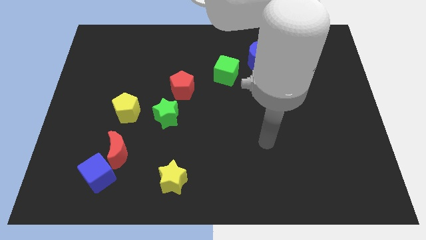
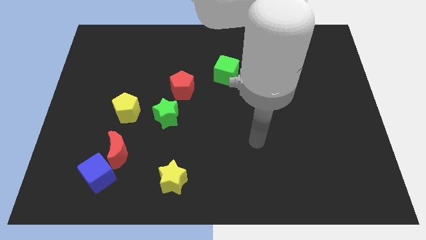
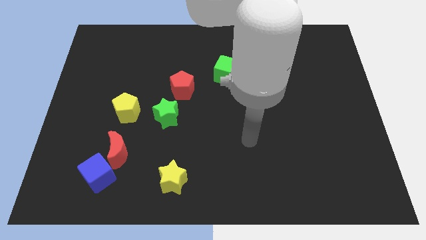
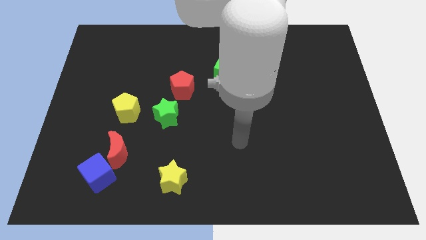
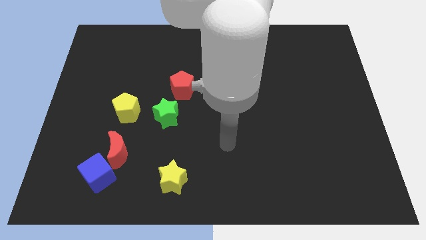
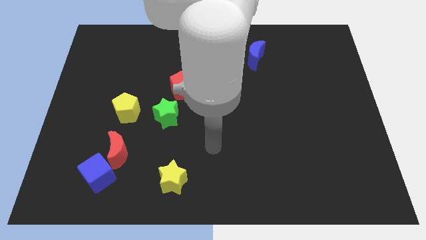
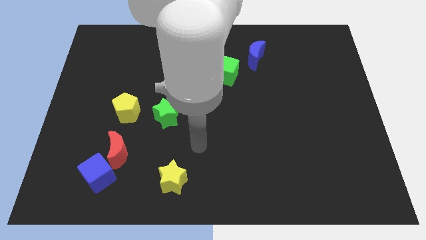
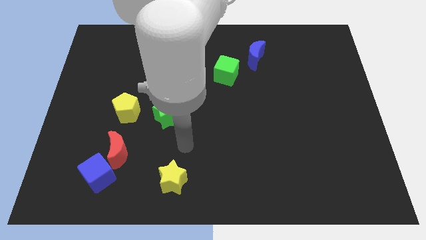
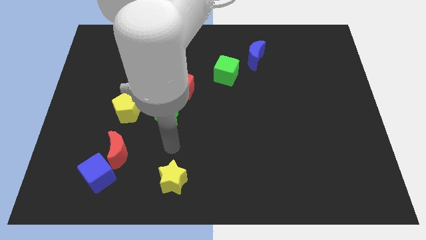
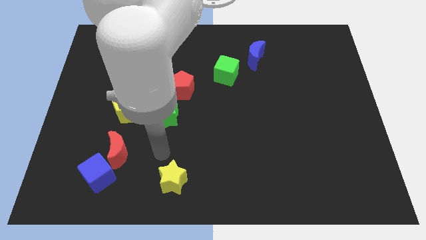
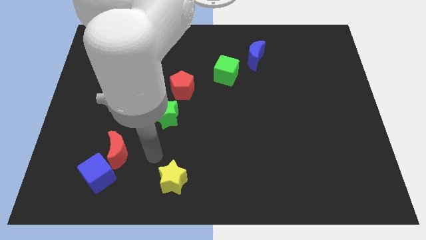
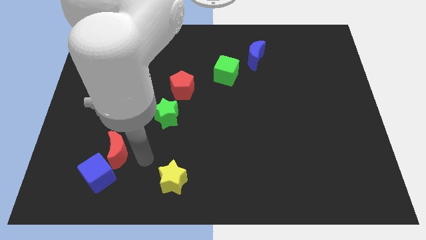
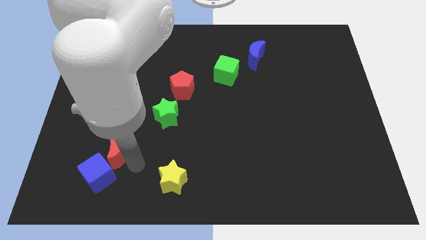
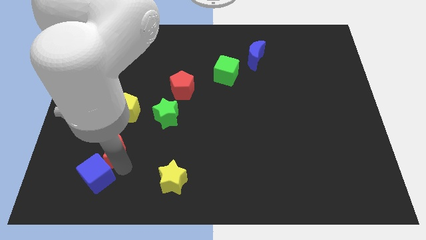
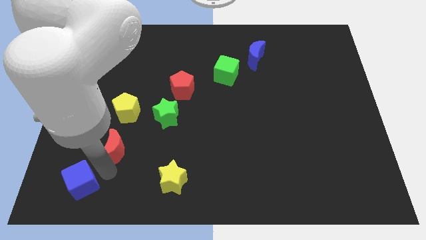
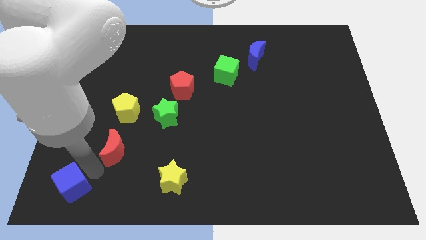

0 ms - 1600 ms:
pull the red moon apart from the blue cube

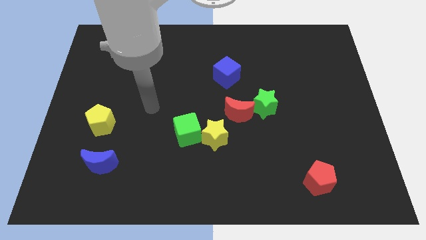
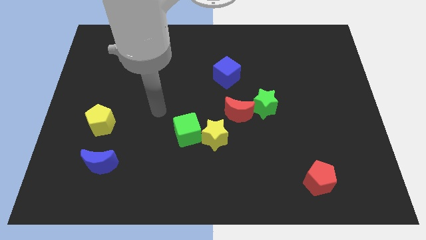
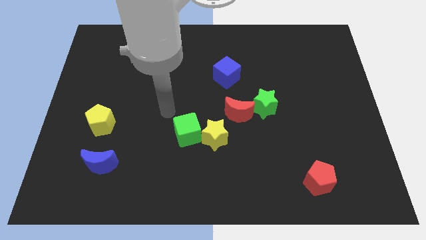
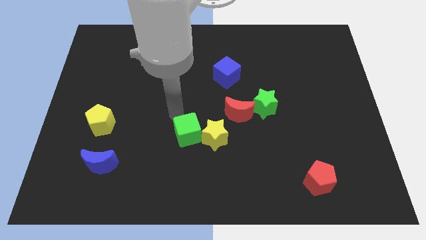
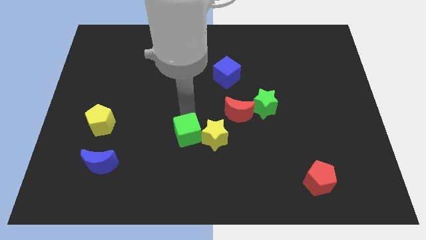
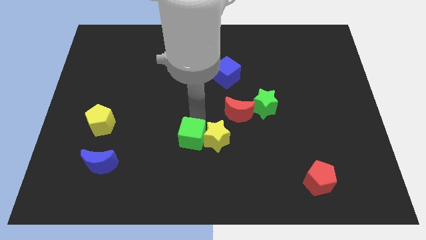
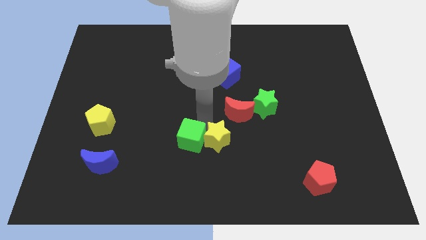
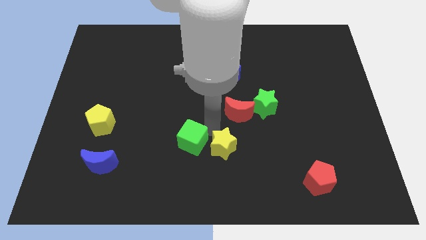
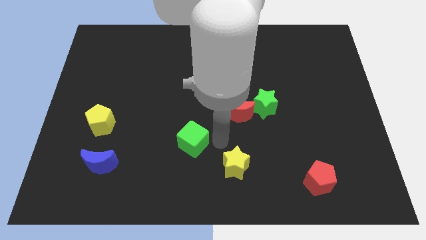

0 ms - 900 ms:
pull the green cube apart from the yellow star

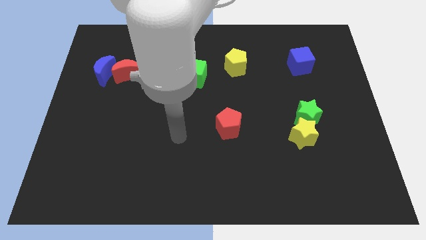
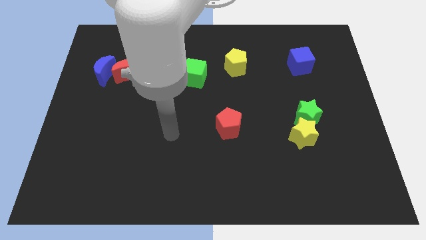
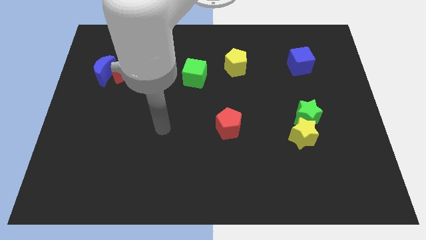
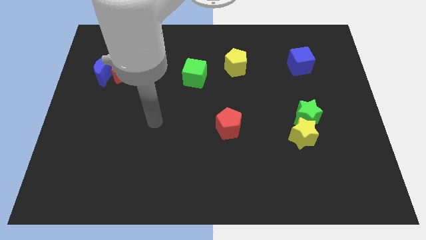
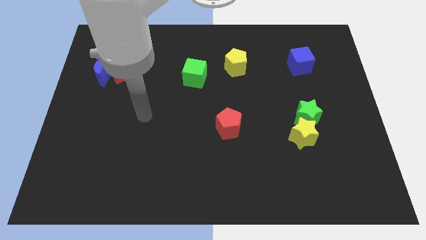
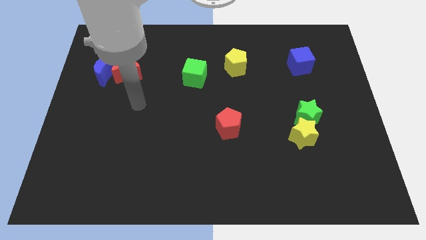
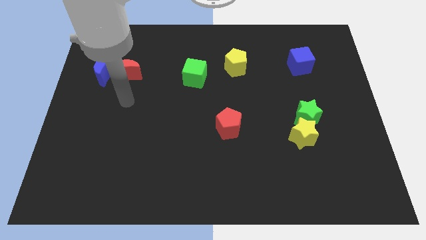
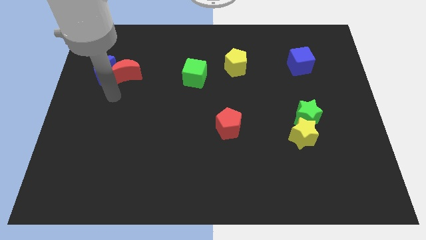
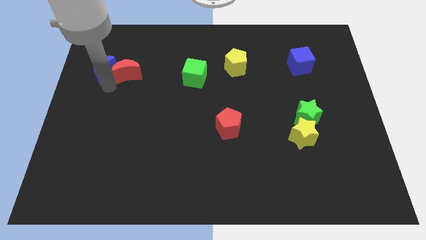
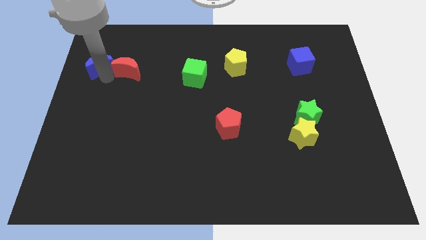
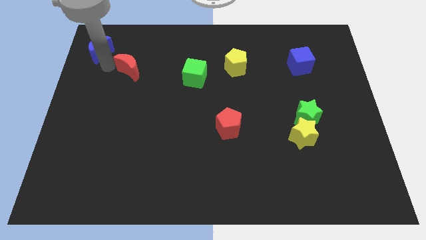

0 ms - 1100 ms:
move the red moon away from the blue moon

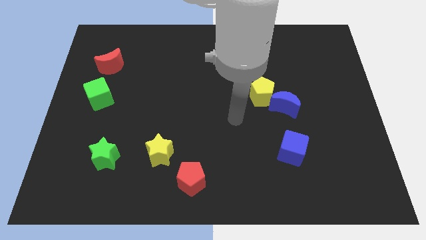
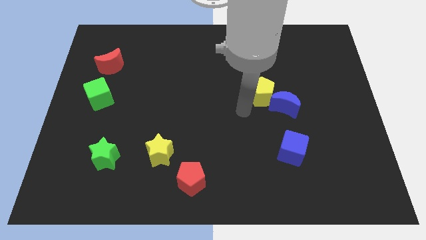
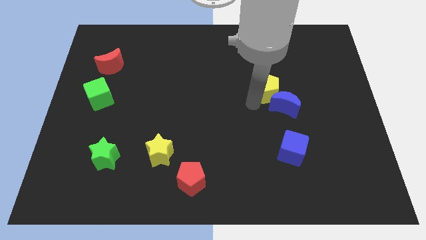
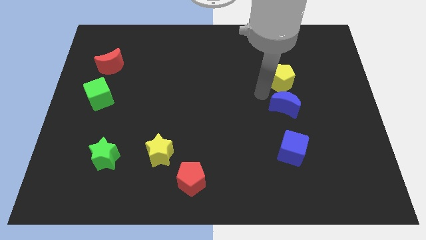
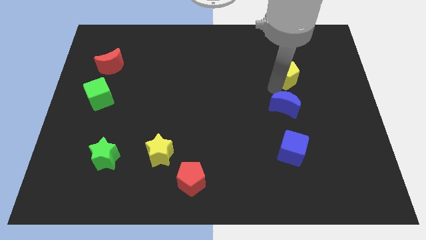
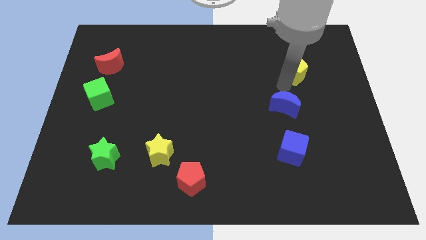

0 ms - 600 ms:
move the blue moon away from the yellow pentagon

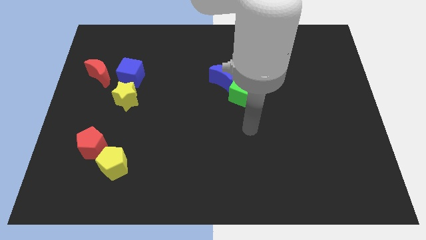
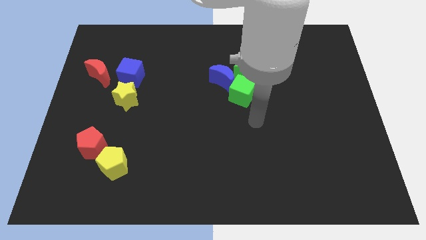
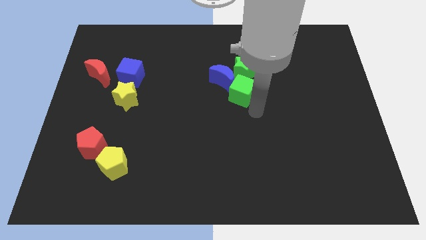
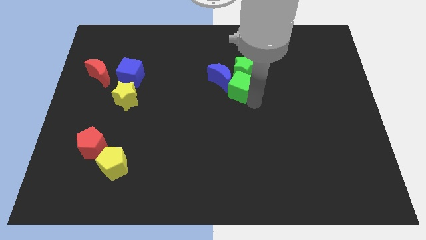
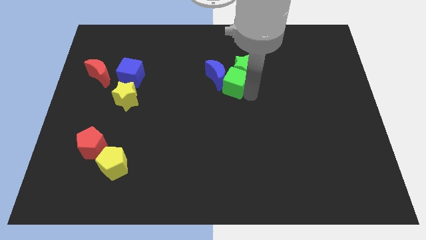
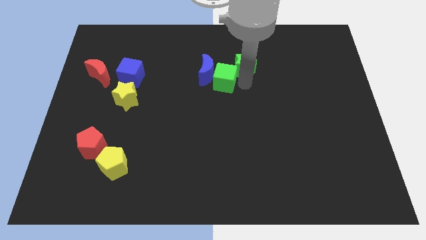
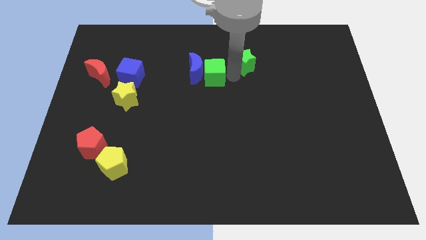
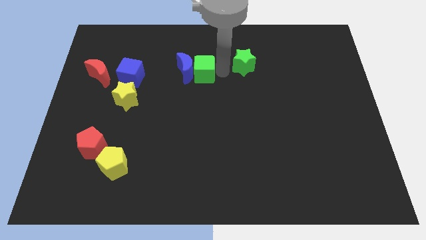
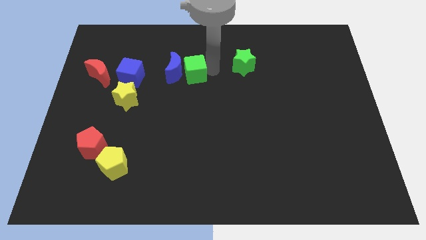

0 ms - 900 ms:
separate the blue moon from the green star and green cube

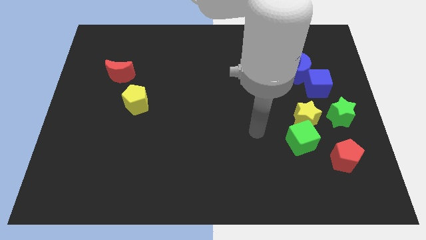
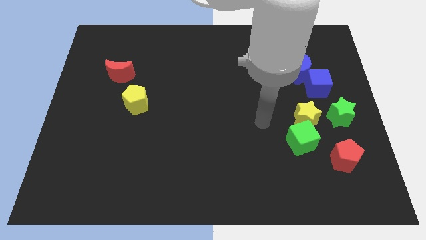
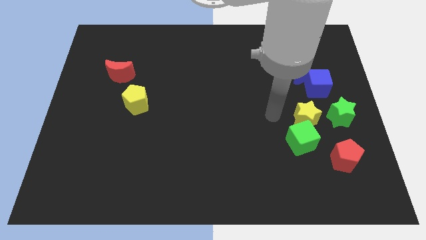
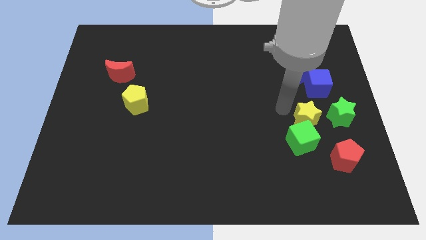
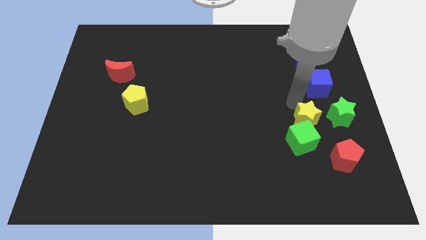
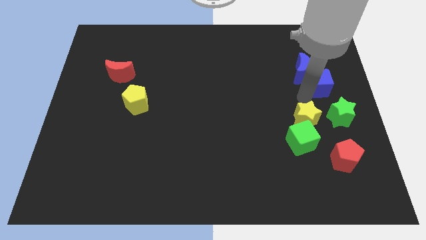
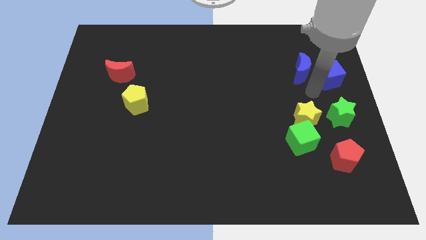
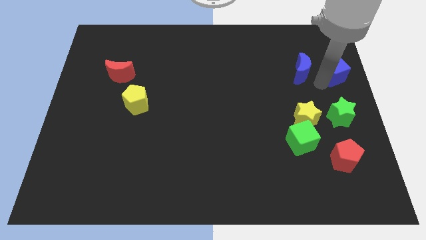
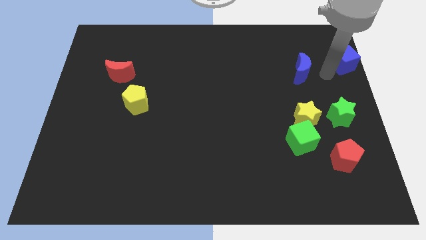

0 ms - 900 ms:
separate the blue moon from the blue cube

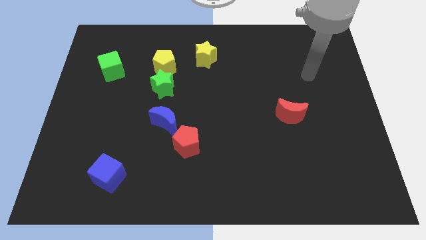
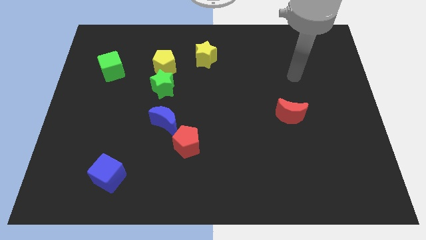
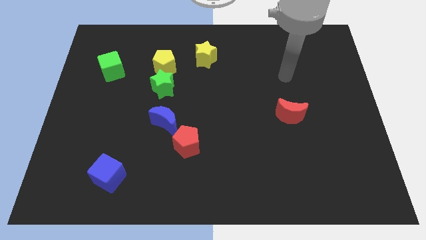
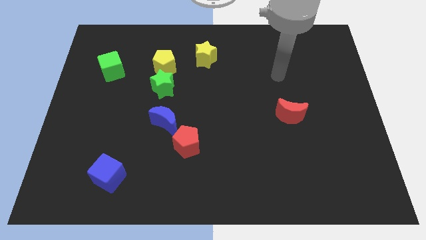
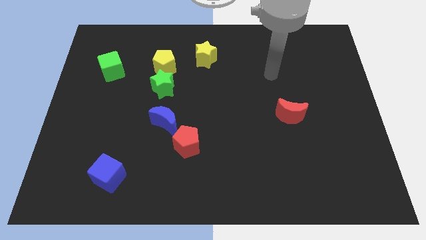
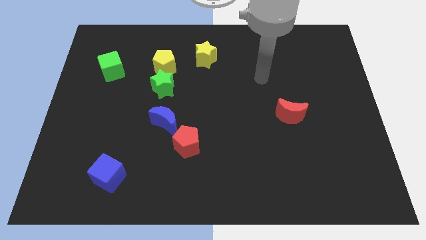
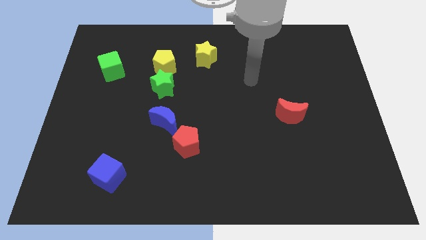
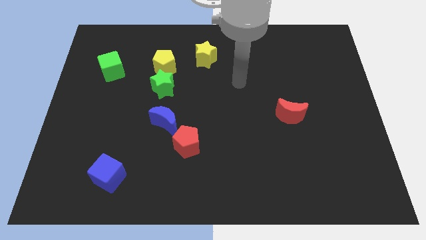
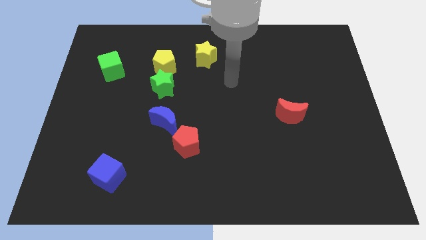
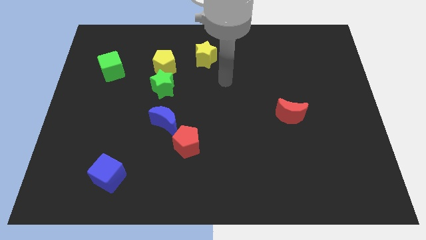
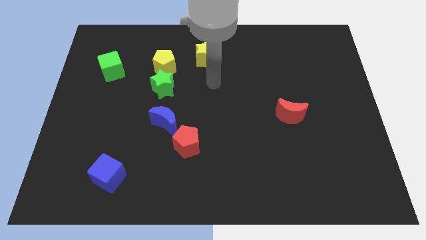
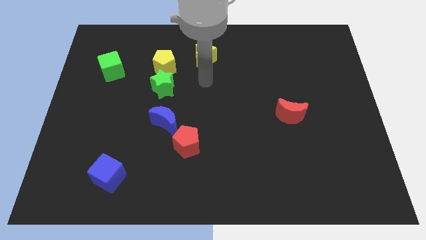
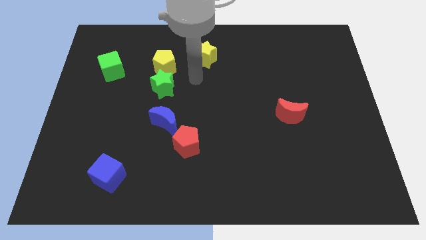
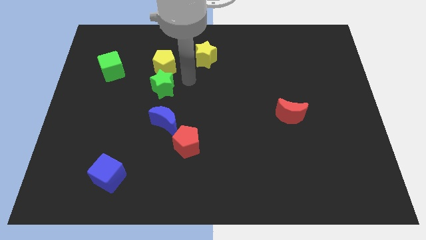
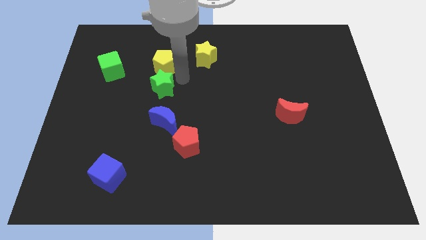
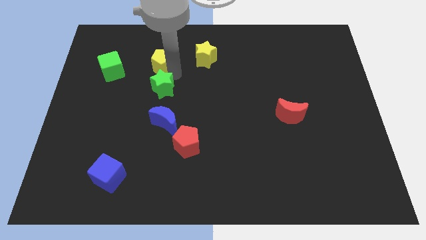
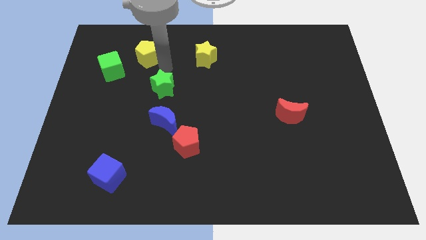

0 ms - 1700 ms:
move the green star away from the yellow pentagon

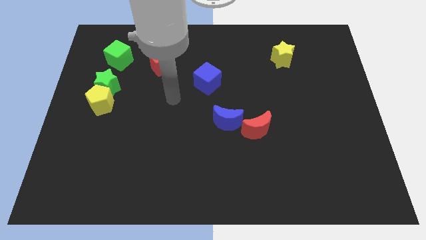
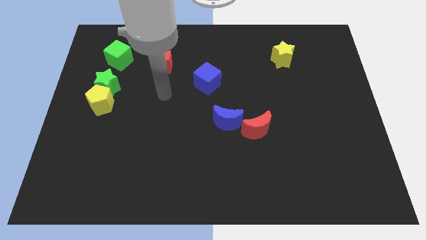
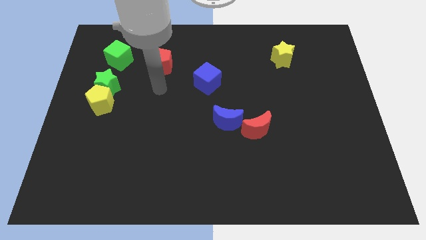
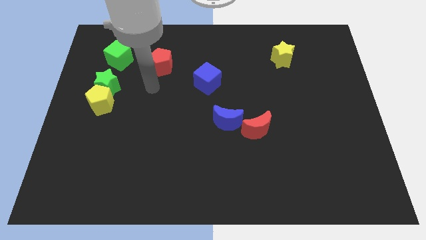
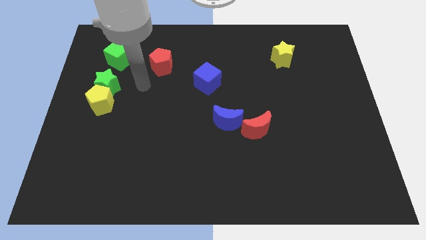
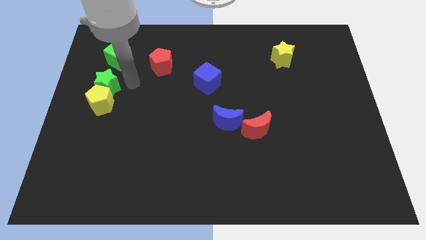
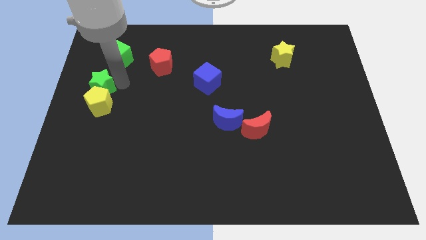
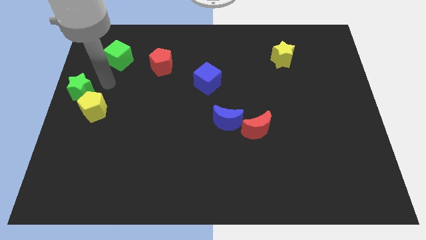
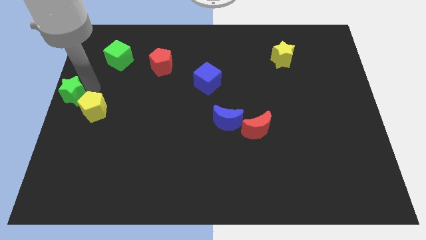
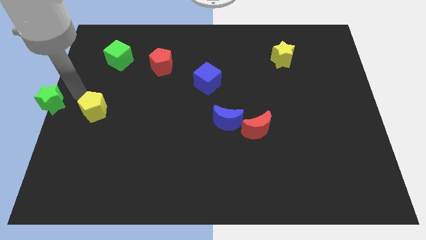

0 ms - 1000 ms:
pull the yellow pentagon apart from the green star

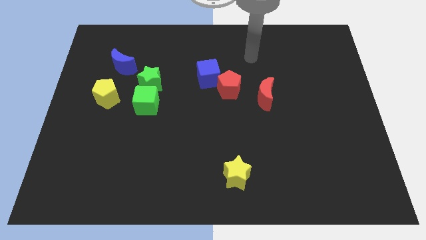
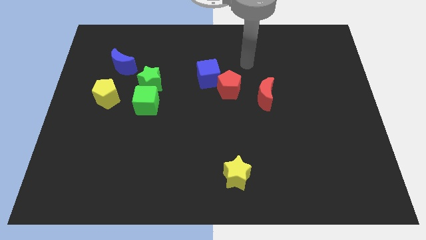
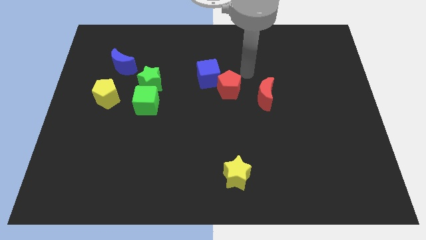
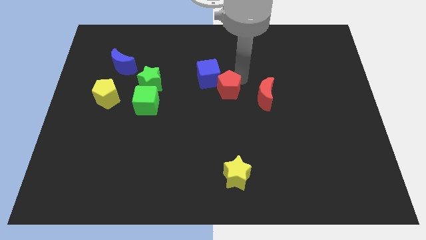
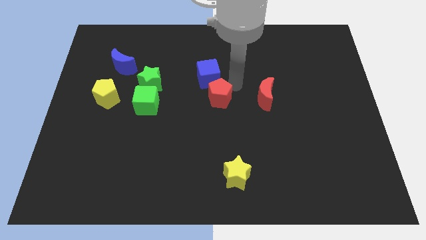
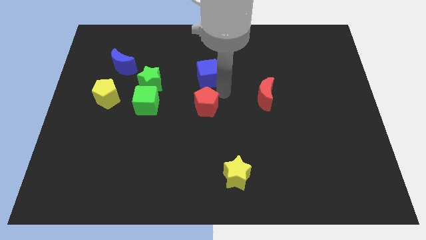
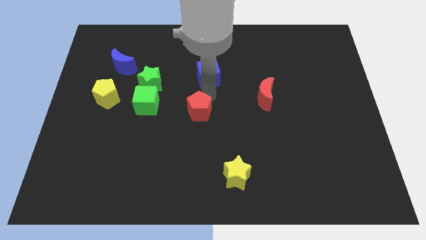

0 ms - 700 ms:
pull the blue cube apart from the red pentagon

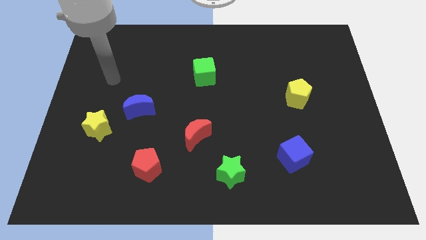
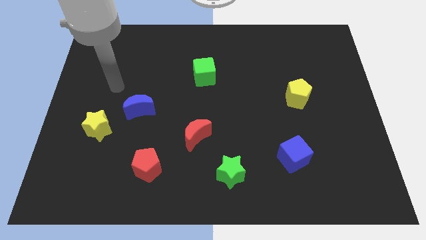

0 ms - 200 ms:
move the blue moon away from the yellow star
